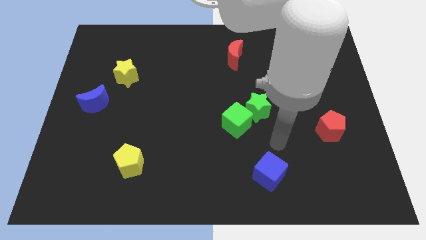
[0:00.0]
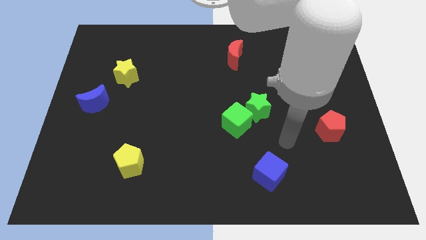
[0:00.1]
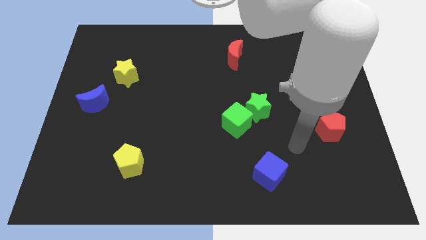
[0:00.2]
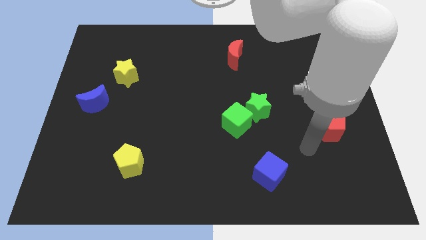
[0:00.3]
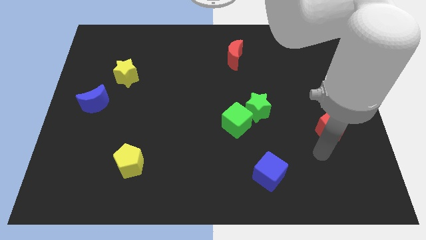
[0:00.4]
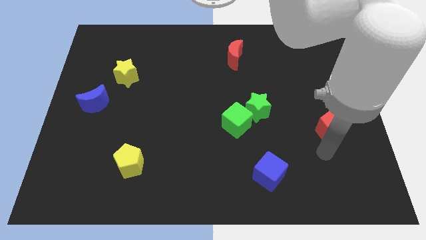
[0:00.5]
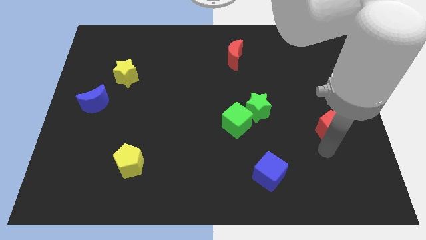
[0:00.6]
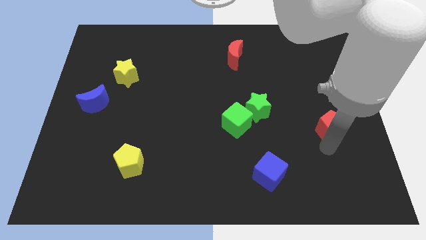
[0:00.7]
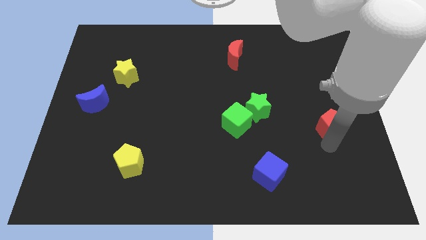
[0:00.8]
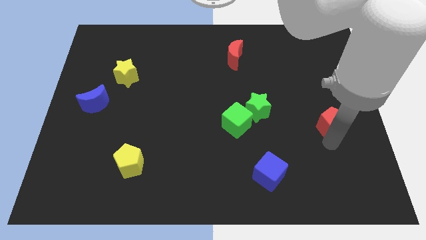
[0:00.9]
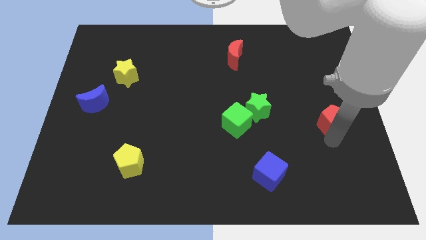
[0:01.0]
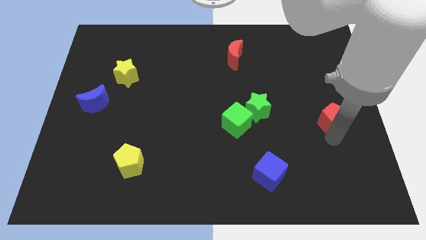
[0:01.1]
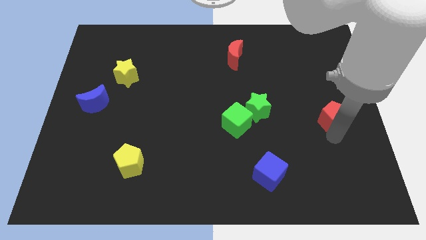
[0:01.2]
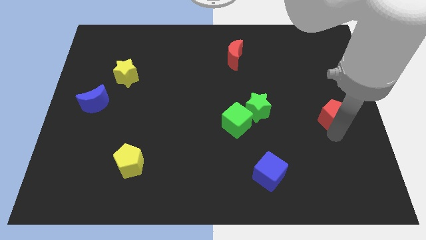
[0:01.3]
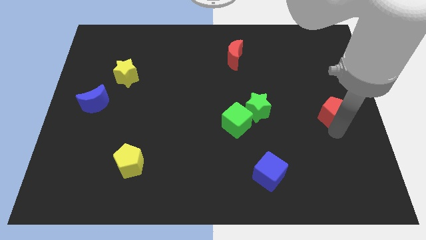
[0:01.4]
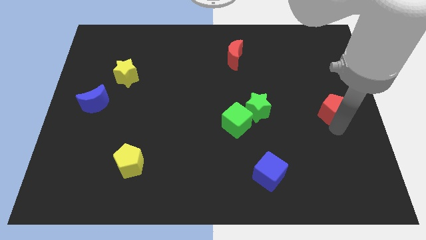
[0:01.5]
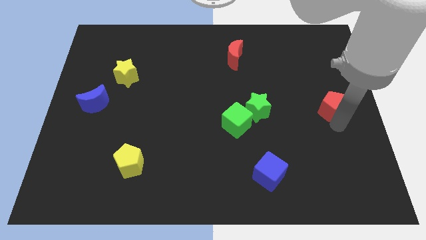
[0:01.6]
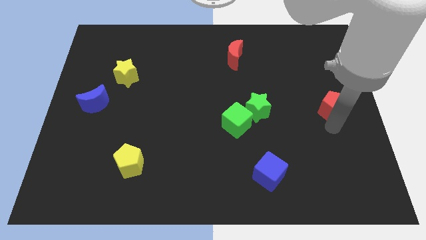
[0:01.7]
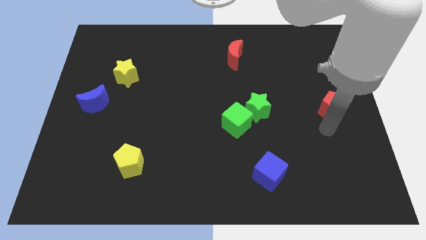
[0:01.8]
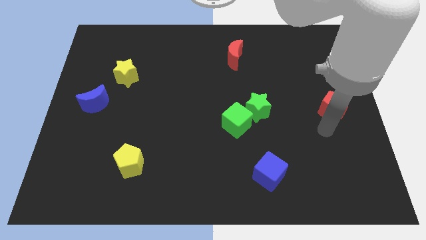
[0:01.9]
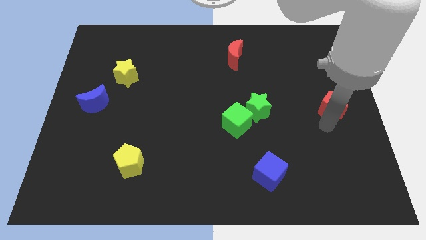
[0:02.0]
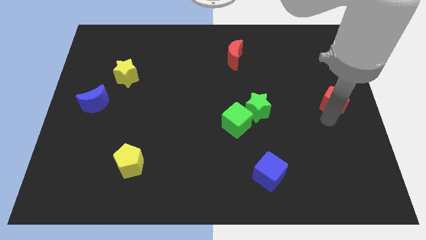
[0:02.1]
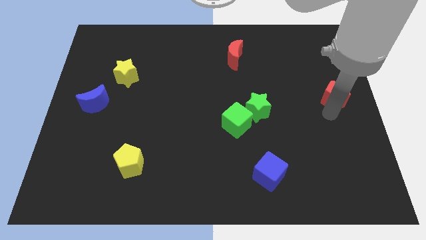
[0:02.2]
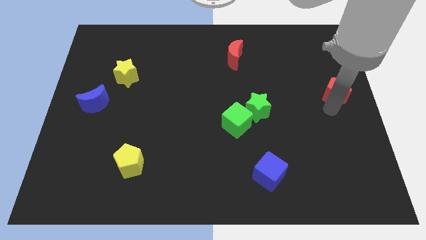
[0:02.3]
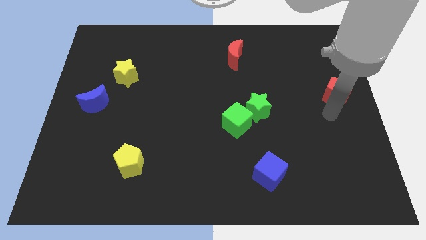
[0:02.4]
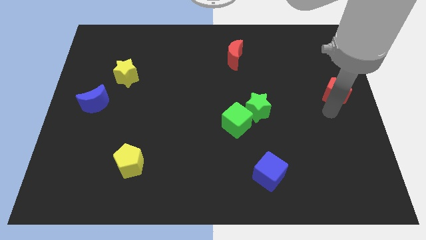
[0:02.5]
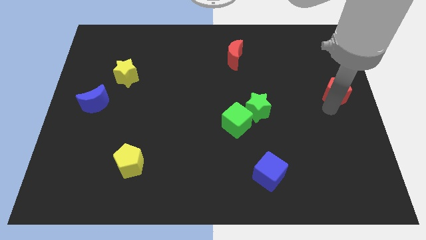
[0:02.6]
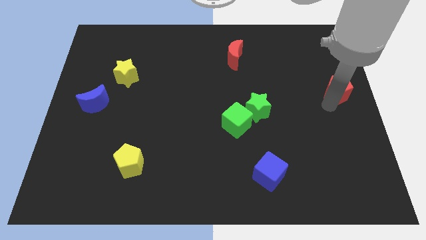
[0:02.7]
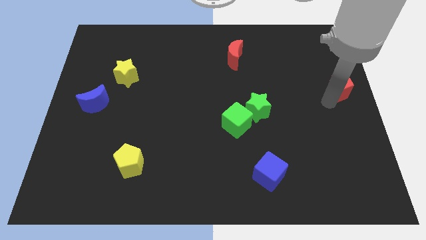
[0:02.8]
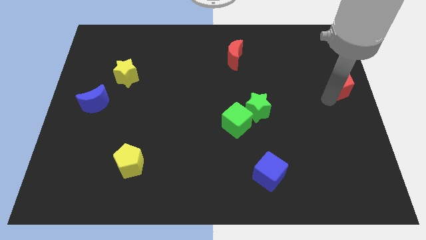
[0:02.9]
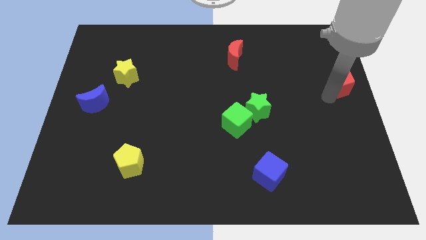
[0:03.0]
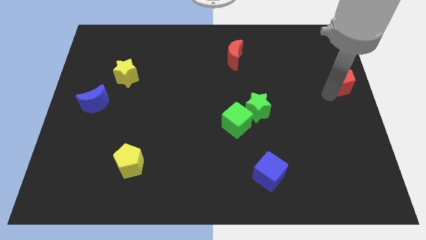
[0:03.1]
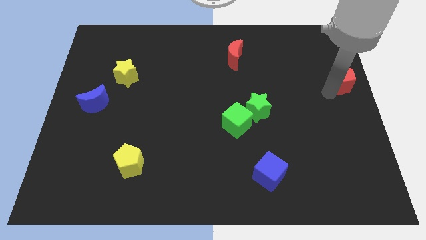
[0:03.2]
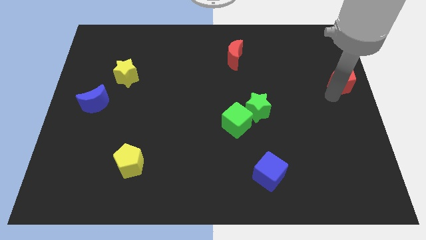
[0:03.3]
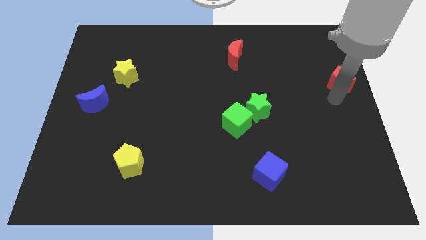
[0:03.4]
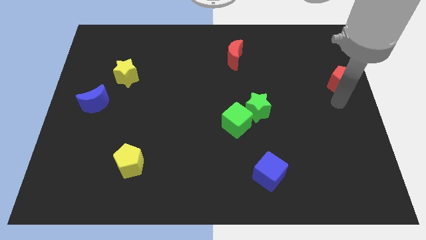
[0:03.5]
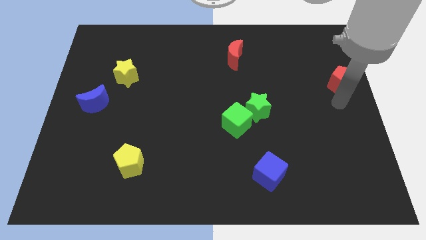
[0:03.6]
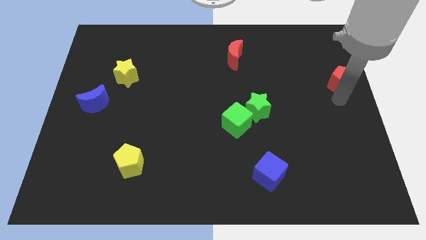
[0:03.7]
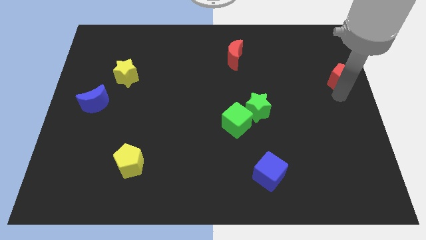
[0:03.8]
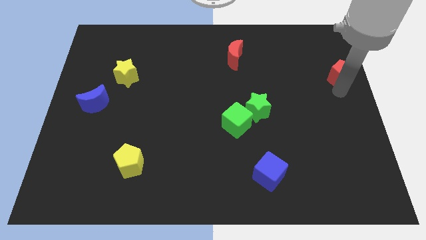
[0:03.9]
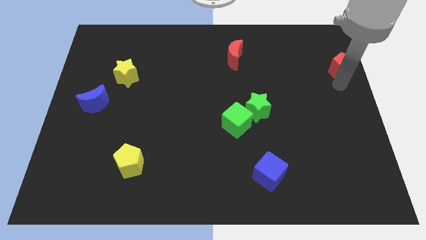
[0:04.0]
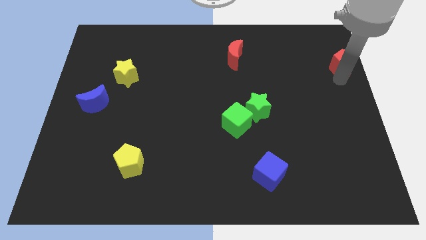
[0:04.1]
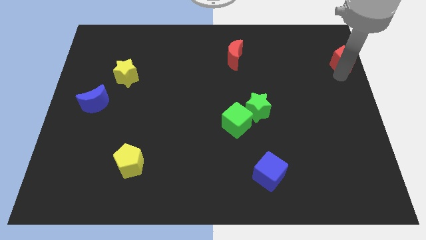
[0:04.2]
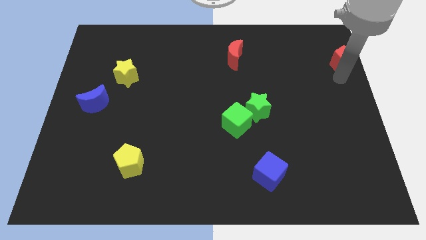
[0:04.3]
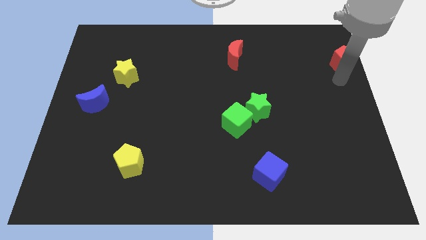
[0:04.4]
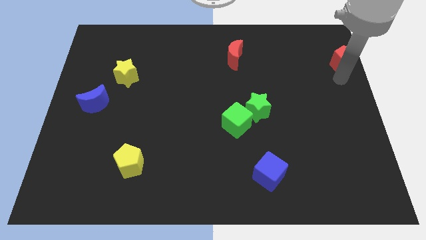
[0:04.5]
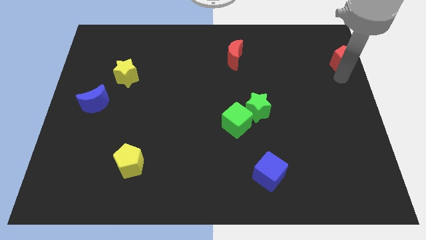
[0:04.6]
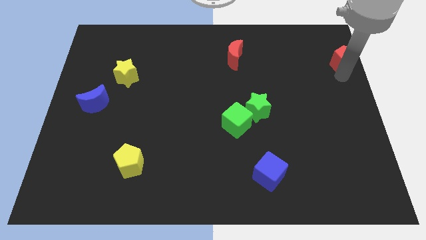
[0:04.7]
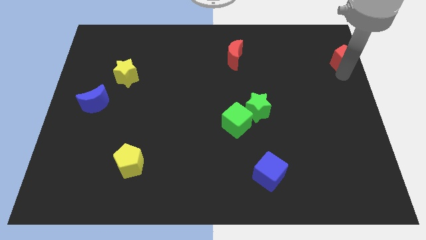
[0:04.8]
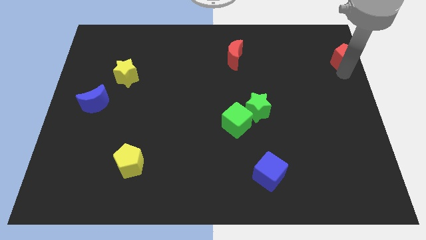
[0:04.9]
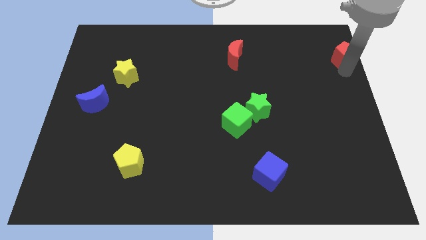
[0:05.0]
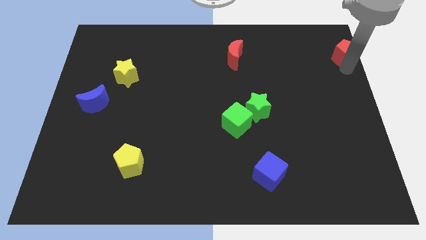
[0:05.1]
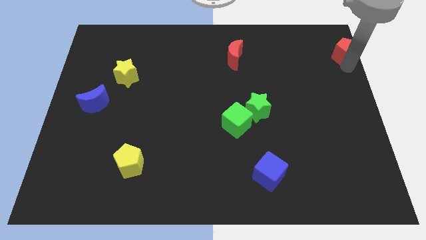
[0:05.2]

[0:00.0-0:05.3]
push the red pentagon to the top right of the board

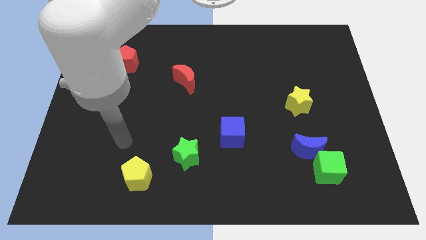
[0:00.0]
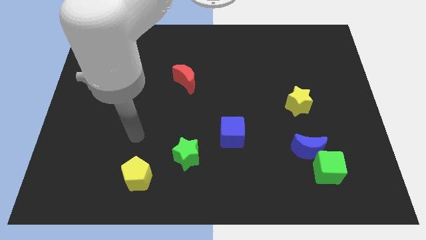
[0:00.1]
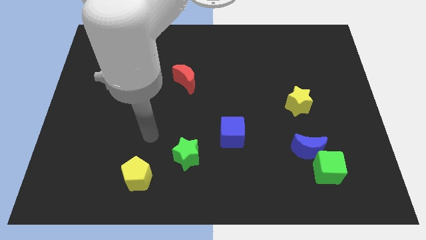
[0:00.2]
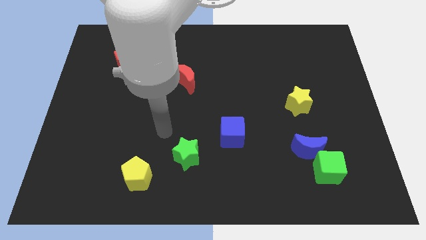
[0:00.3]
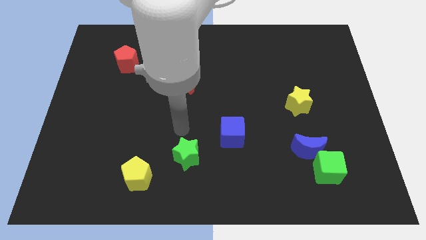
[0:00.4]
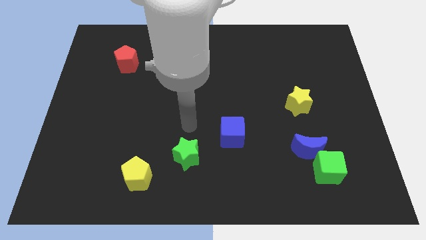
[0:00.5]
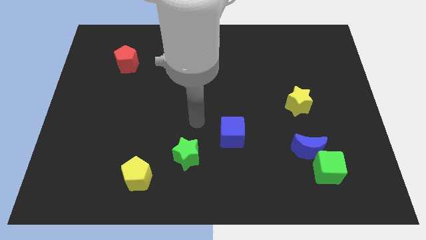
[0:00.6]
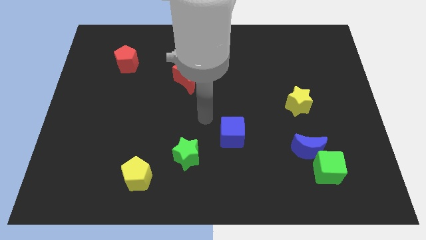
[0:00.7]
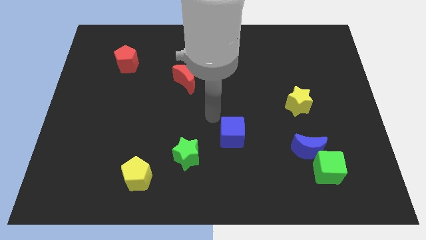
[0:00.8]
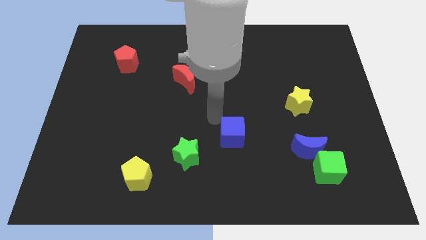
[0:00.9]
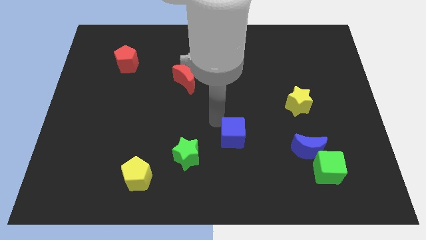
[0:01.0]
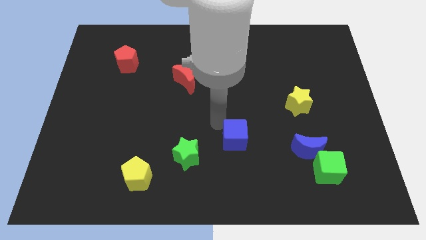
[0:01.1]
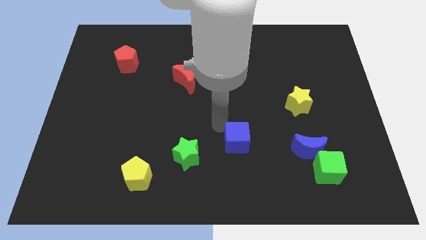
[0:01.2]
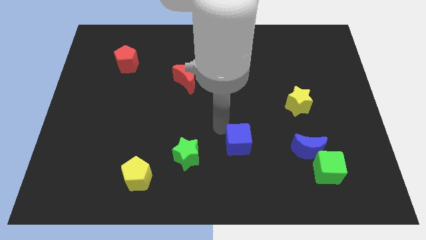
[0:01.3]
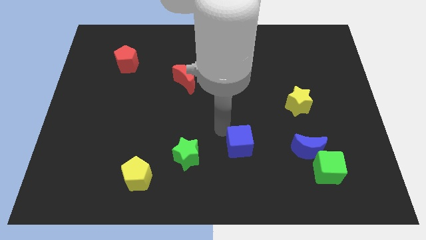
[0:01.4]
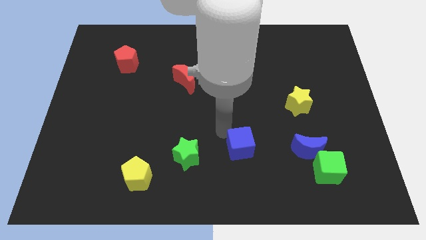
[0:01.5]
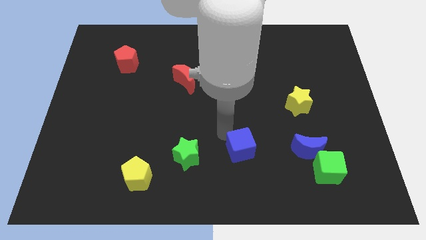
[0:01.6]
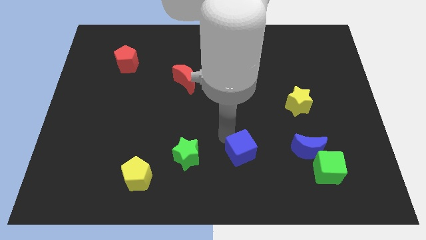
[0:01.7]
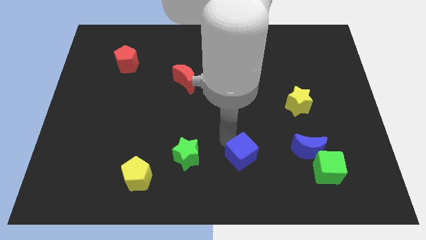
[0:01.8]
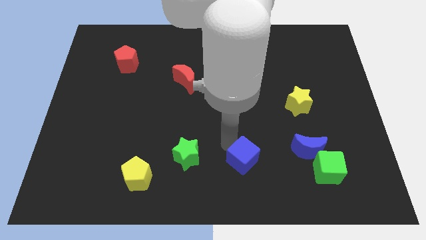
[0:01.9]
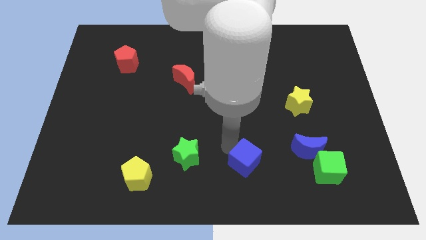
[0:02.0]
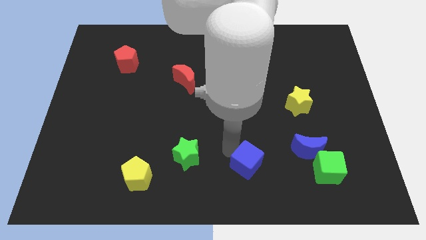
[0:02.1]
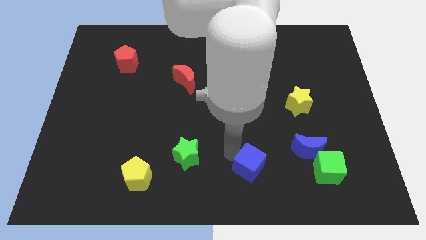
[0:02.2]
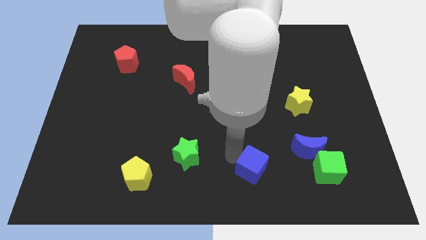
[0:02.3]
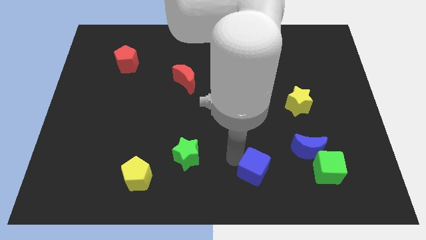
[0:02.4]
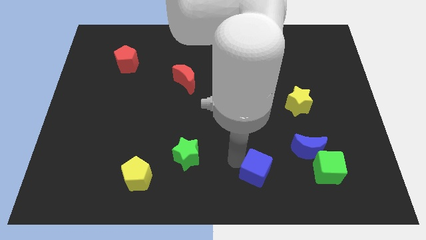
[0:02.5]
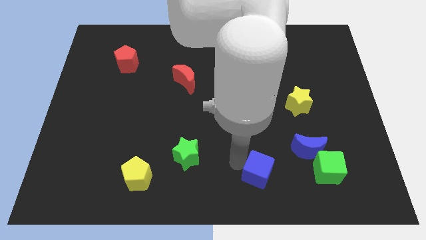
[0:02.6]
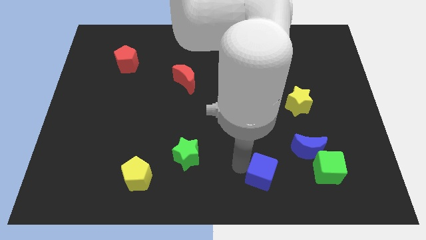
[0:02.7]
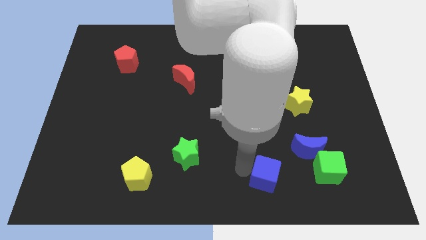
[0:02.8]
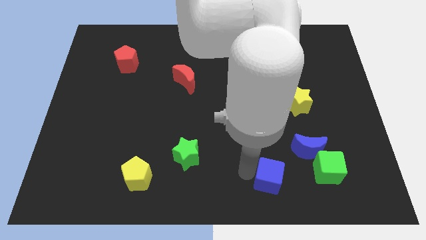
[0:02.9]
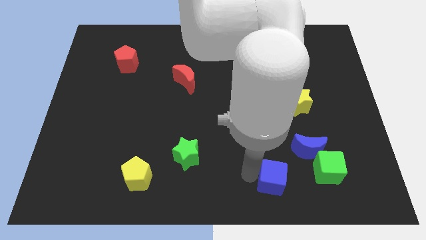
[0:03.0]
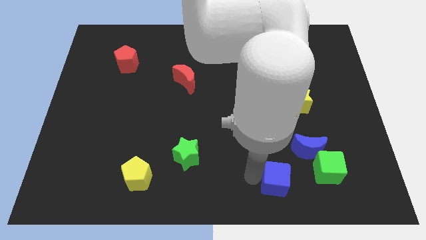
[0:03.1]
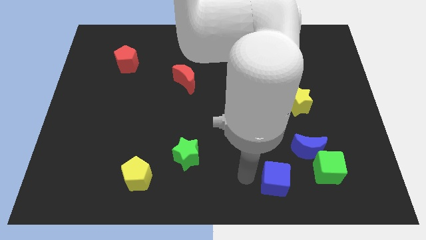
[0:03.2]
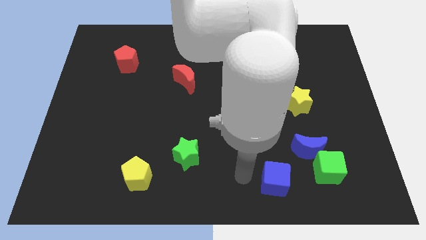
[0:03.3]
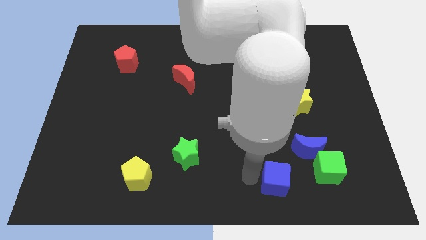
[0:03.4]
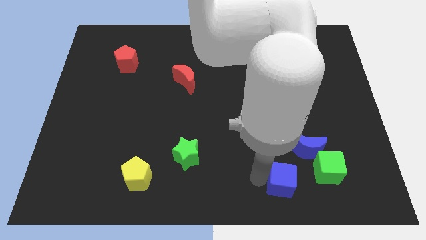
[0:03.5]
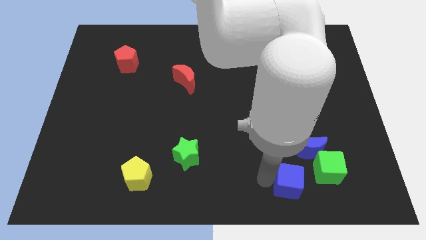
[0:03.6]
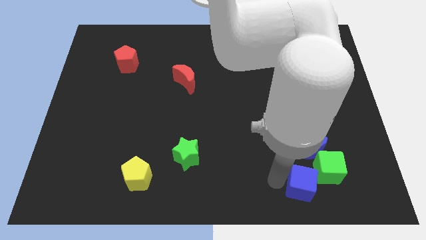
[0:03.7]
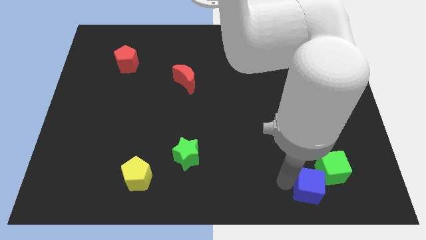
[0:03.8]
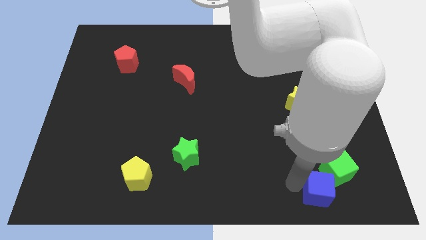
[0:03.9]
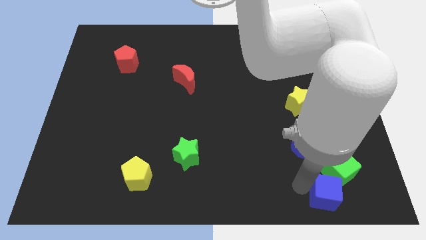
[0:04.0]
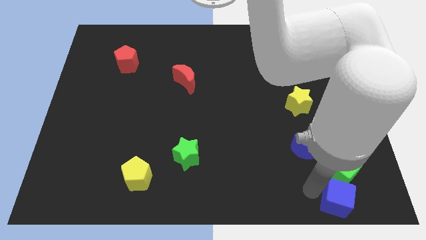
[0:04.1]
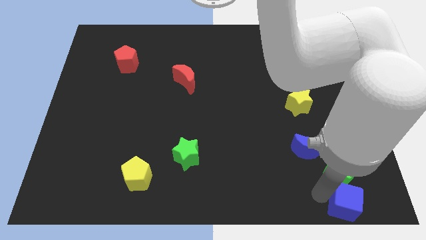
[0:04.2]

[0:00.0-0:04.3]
move the blue cube to the bottom right of the board
